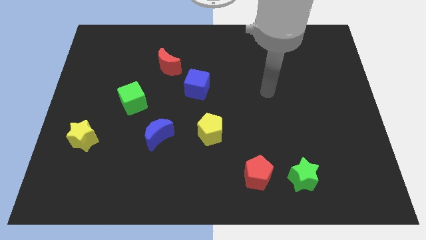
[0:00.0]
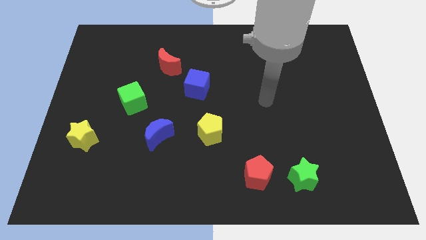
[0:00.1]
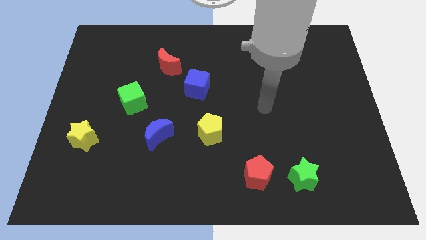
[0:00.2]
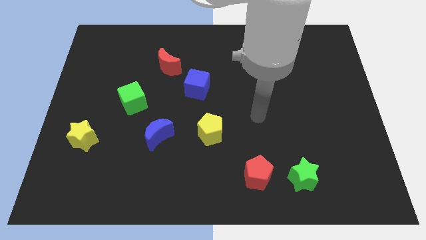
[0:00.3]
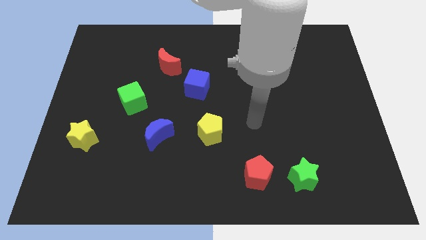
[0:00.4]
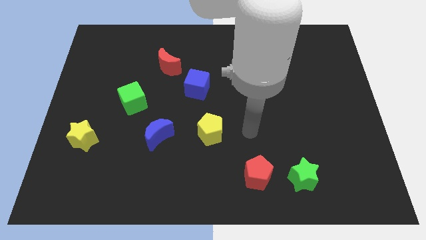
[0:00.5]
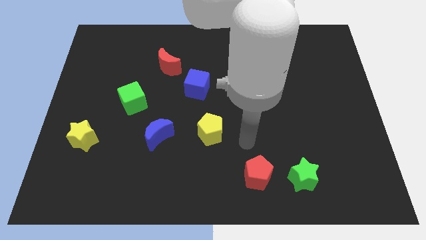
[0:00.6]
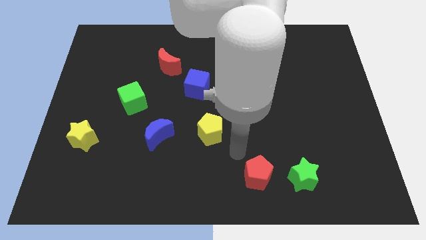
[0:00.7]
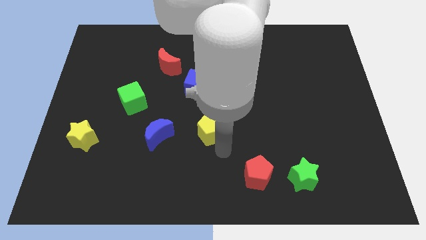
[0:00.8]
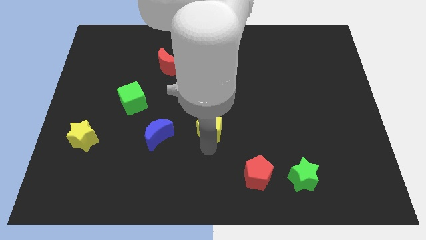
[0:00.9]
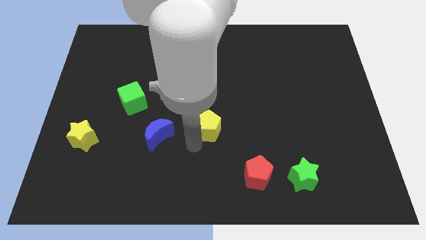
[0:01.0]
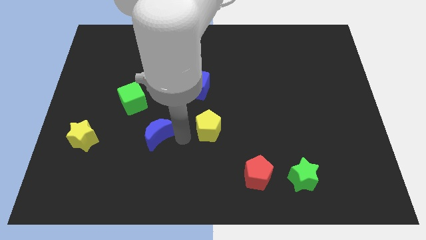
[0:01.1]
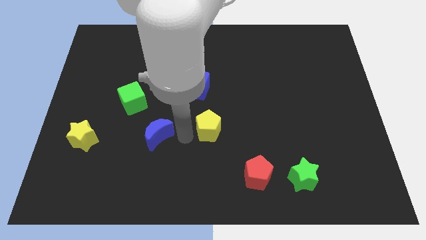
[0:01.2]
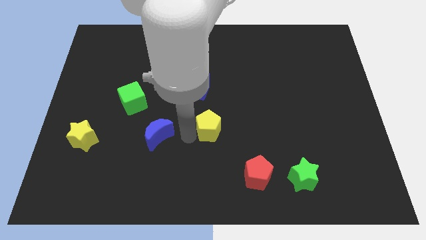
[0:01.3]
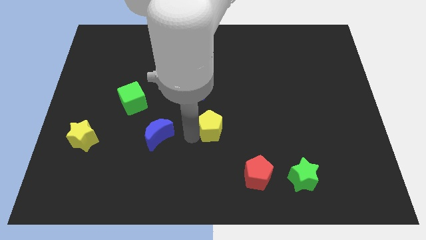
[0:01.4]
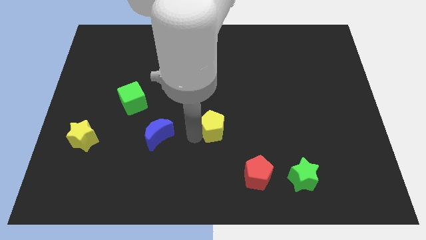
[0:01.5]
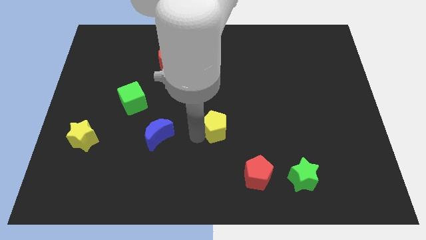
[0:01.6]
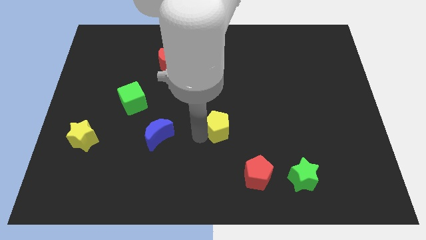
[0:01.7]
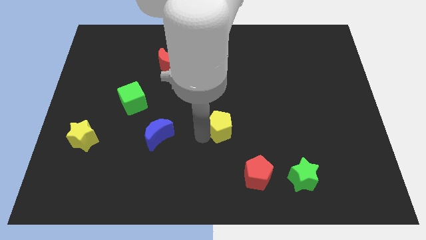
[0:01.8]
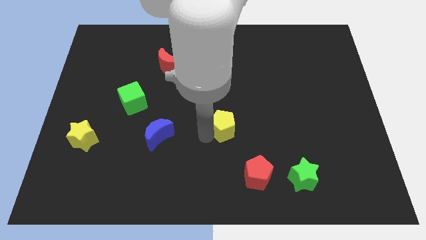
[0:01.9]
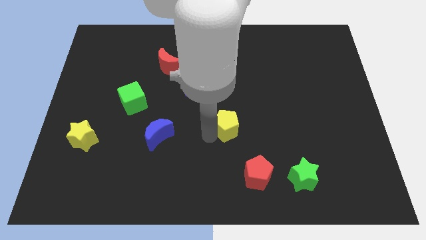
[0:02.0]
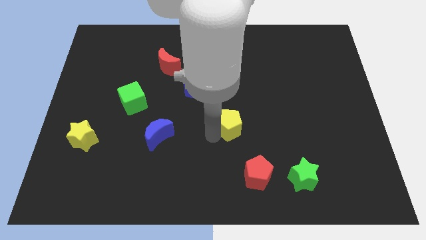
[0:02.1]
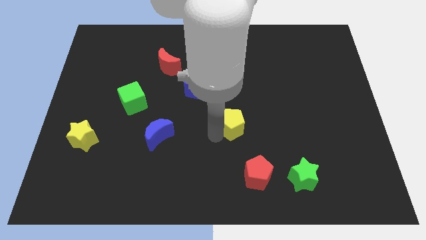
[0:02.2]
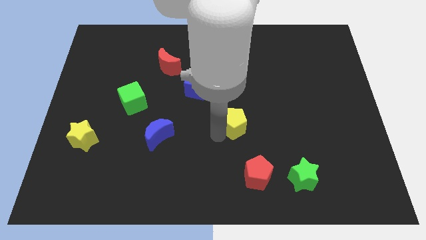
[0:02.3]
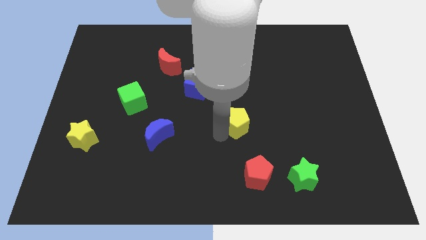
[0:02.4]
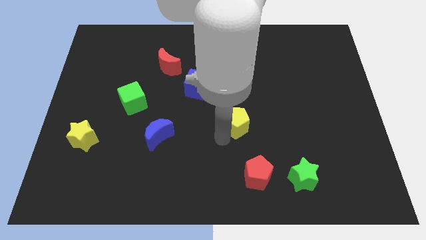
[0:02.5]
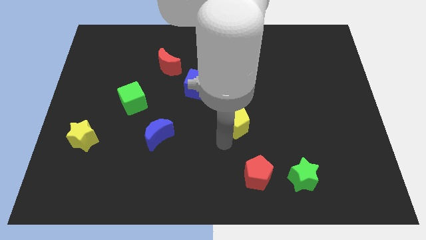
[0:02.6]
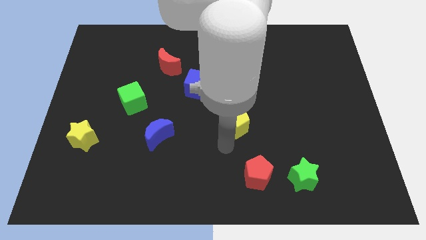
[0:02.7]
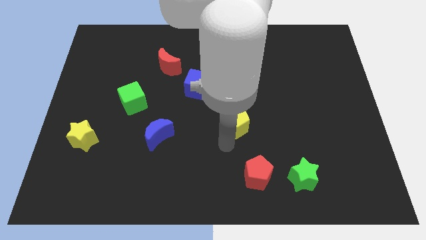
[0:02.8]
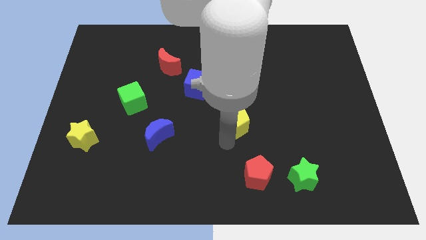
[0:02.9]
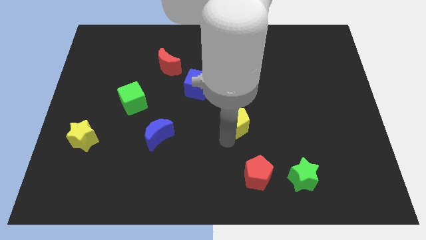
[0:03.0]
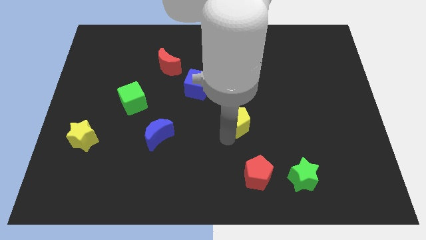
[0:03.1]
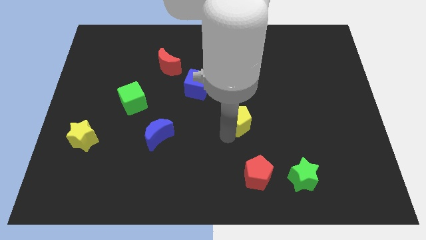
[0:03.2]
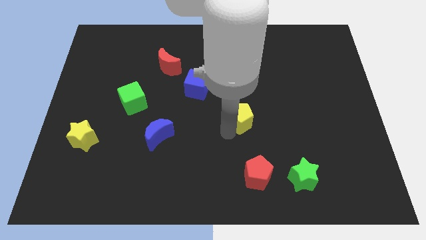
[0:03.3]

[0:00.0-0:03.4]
slightly slide the yellow pentagon upwards and then right

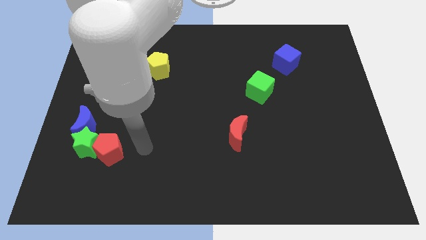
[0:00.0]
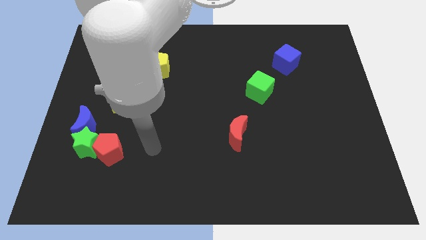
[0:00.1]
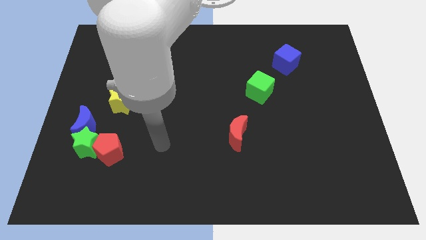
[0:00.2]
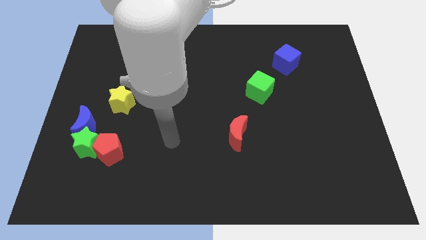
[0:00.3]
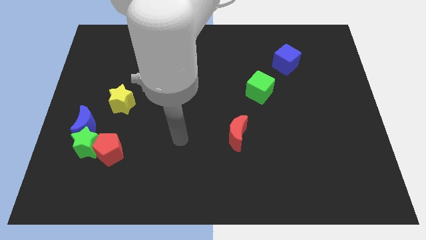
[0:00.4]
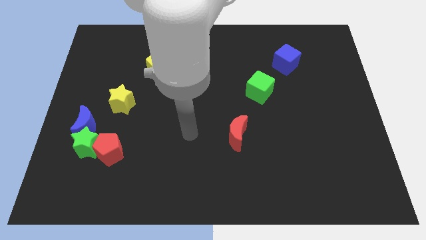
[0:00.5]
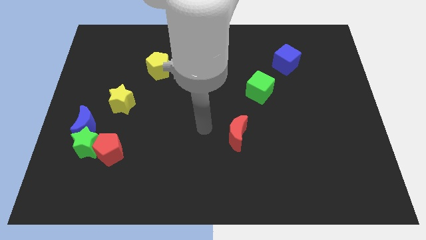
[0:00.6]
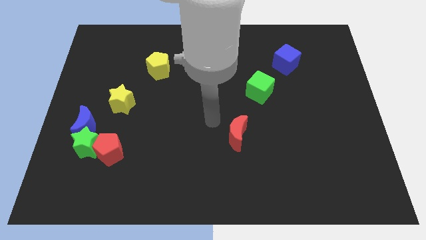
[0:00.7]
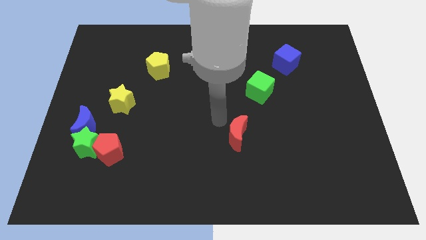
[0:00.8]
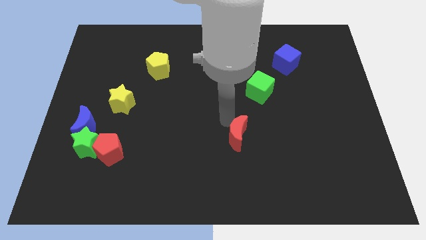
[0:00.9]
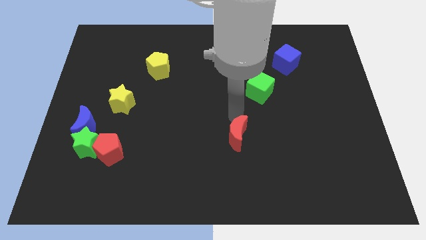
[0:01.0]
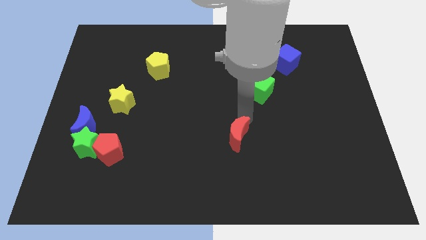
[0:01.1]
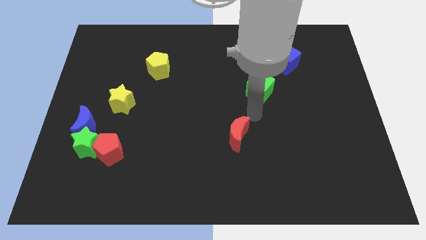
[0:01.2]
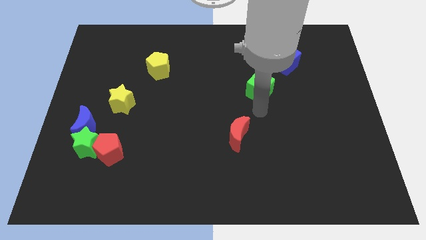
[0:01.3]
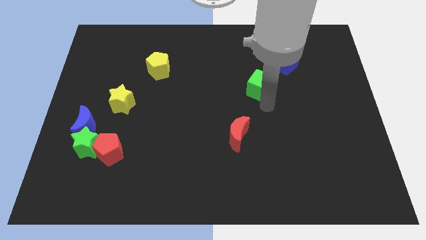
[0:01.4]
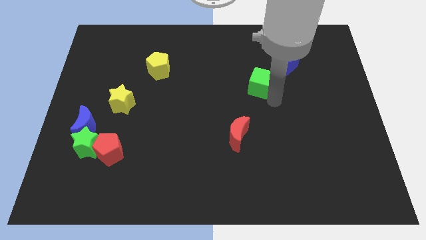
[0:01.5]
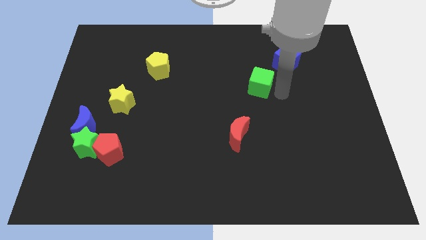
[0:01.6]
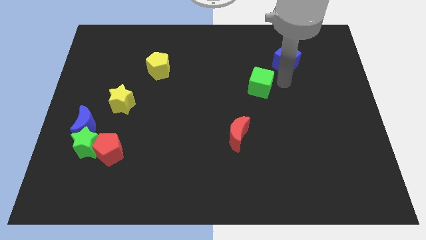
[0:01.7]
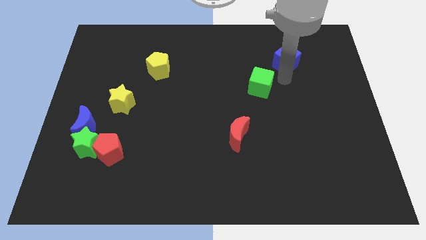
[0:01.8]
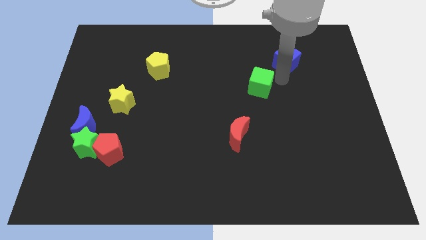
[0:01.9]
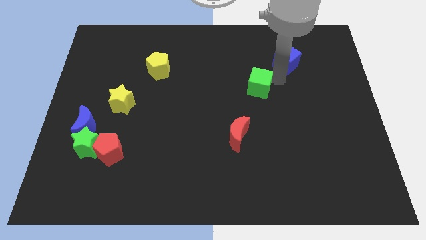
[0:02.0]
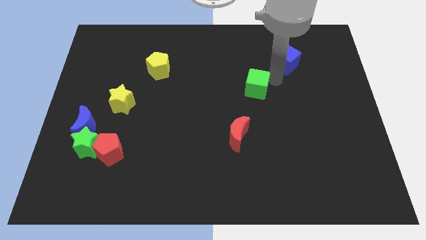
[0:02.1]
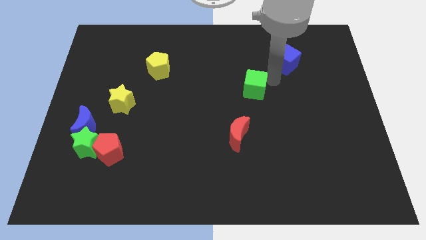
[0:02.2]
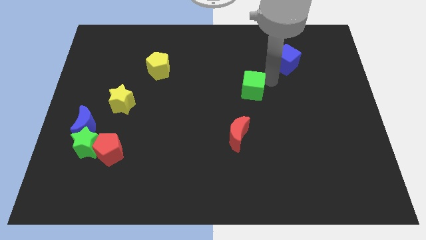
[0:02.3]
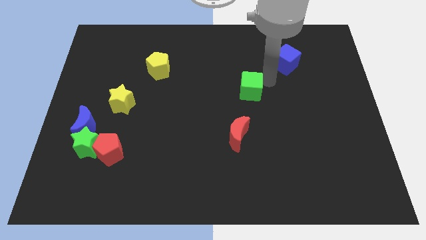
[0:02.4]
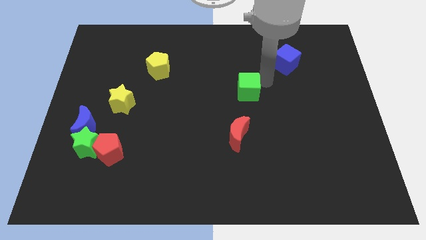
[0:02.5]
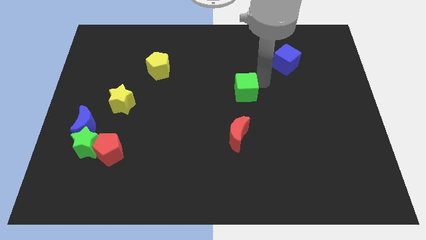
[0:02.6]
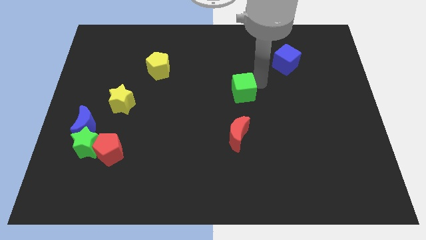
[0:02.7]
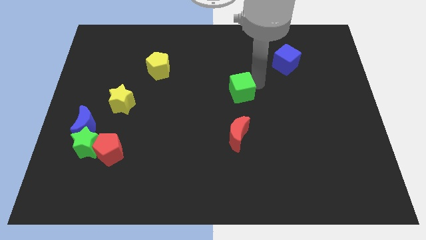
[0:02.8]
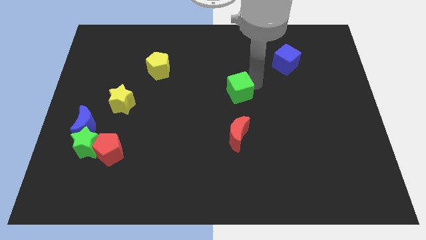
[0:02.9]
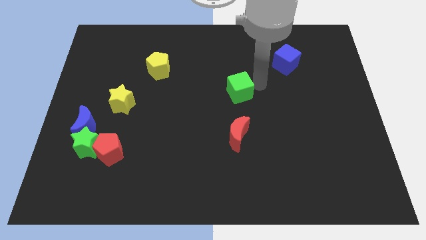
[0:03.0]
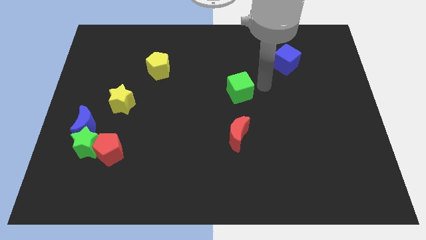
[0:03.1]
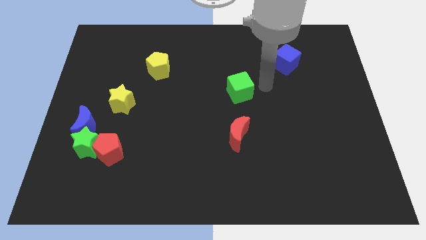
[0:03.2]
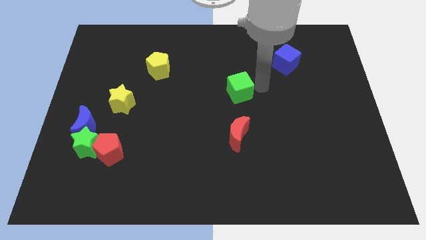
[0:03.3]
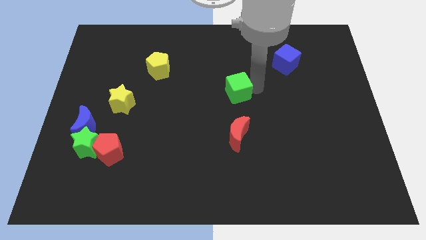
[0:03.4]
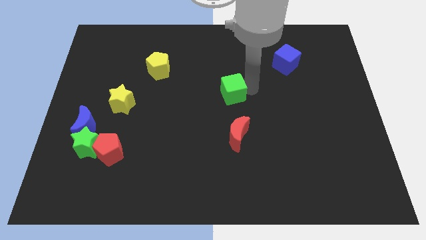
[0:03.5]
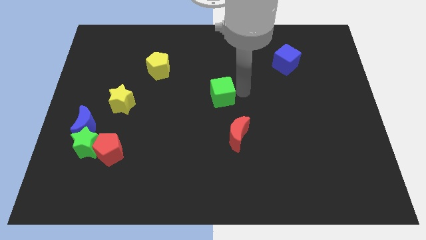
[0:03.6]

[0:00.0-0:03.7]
push the green cube left somewhat

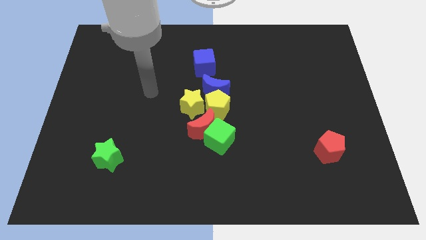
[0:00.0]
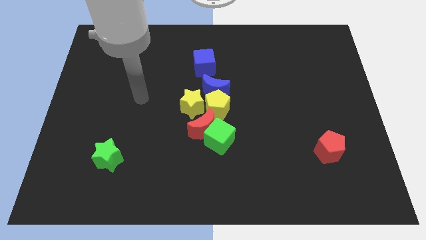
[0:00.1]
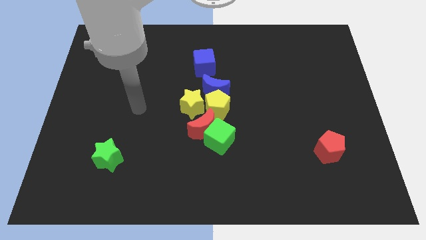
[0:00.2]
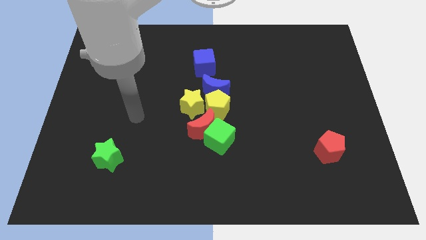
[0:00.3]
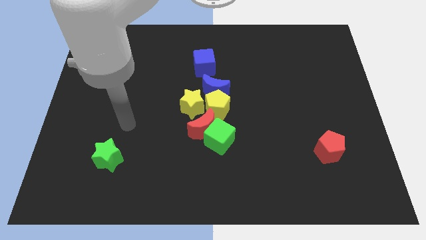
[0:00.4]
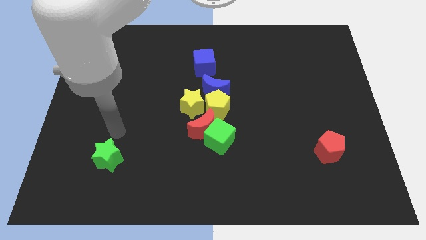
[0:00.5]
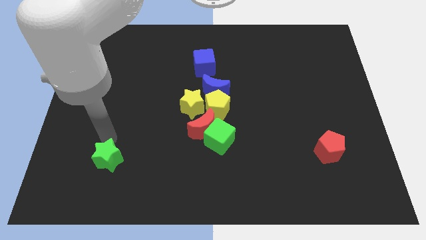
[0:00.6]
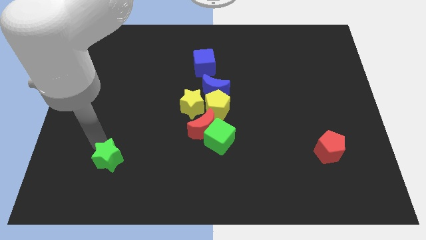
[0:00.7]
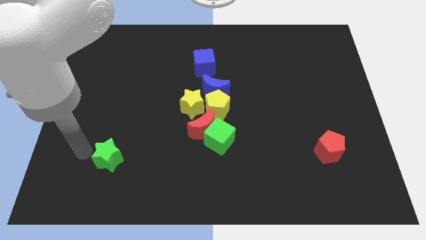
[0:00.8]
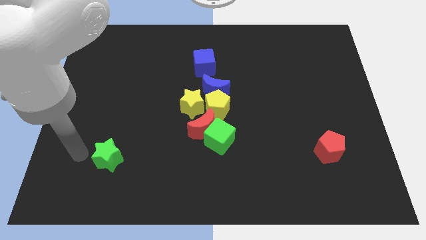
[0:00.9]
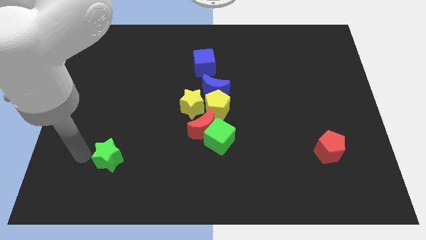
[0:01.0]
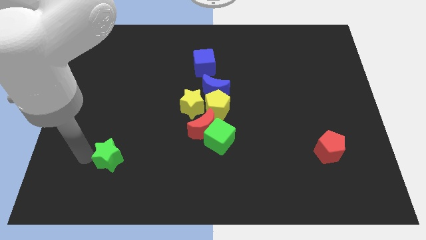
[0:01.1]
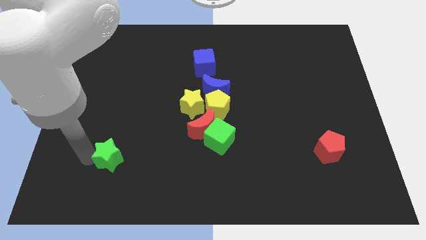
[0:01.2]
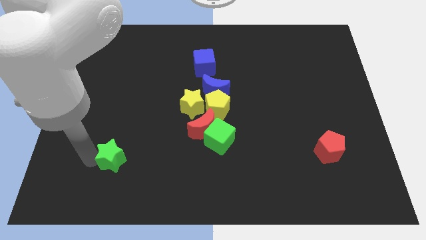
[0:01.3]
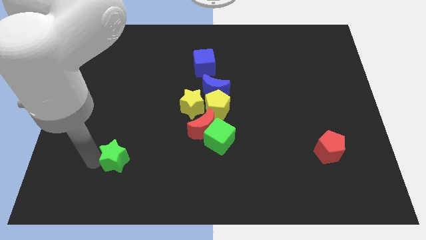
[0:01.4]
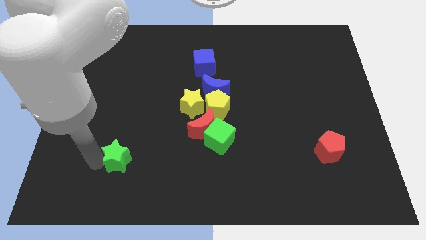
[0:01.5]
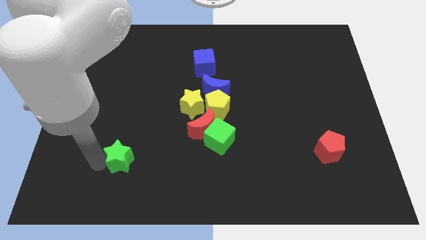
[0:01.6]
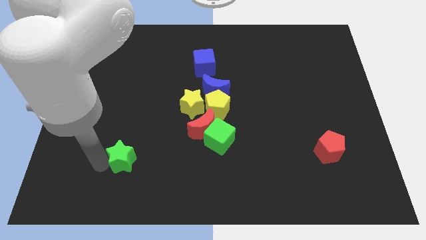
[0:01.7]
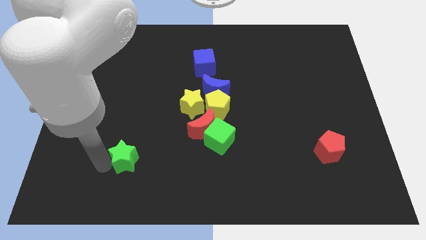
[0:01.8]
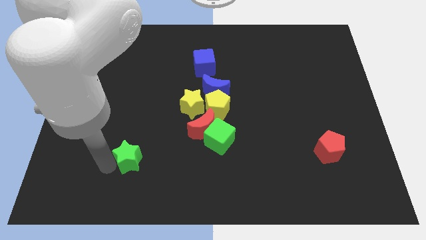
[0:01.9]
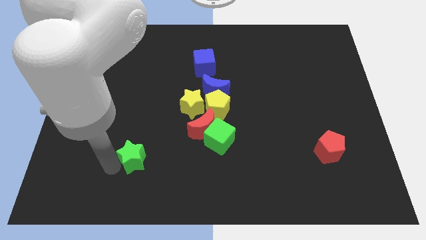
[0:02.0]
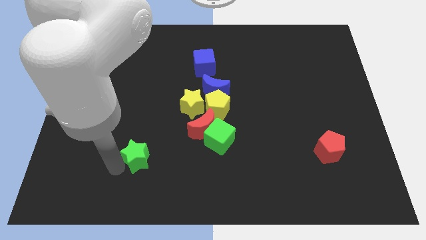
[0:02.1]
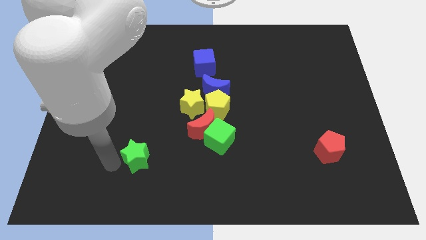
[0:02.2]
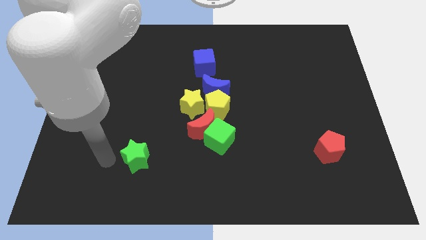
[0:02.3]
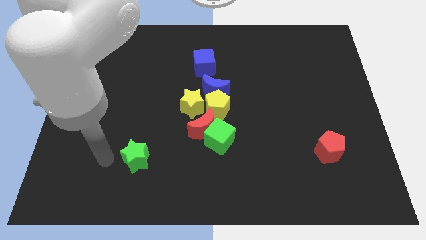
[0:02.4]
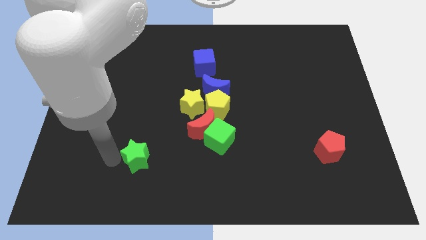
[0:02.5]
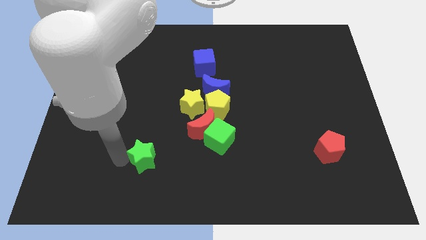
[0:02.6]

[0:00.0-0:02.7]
push the green star slightly to the right
